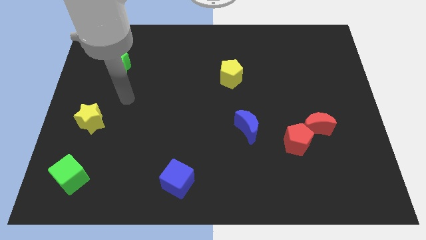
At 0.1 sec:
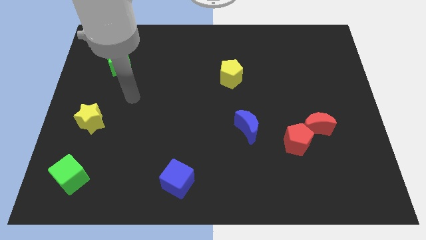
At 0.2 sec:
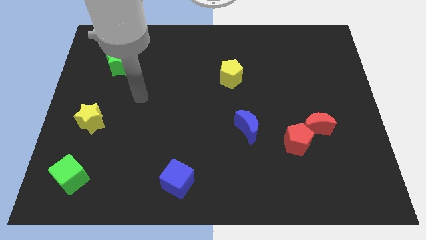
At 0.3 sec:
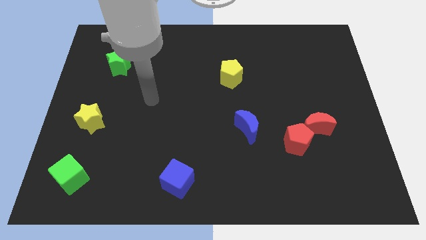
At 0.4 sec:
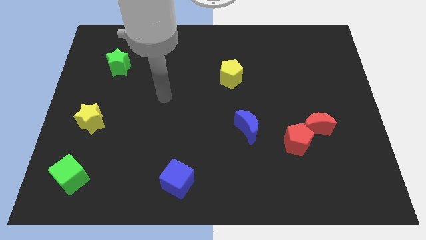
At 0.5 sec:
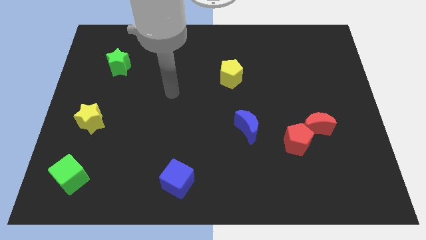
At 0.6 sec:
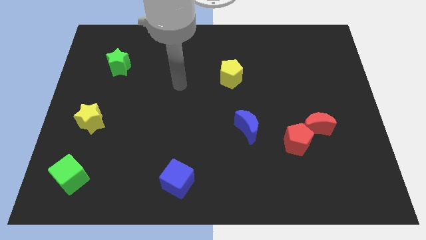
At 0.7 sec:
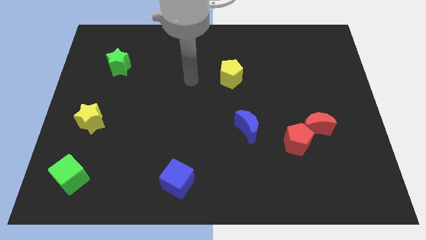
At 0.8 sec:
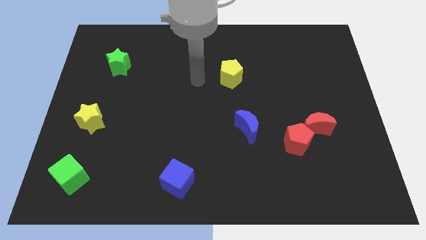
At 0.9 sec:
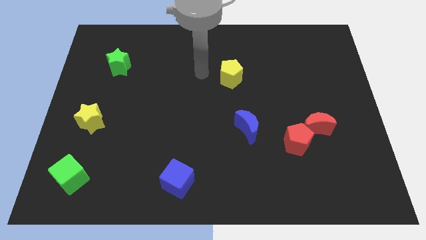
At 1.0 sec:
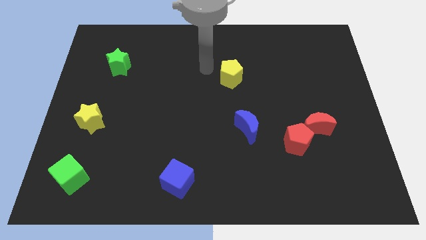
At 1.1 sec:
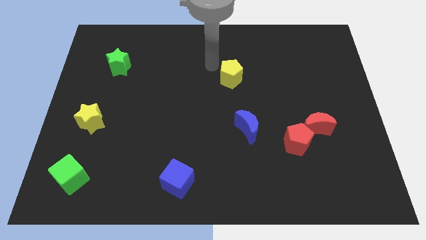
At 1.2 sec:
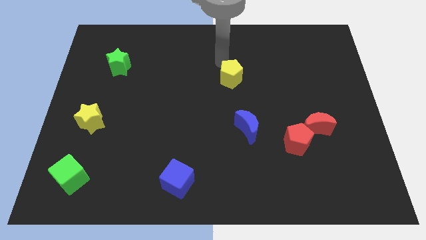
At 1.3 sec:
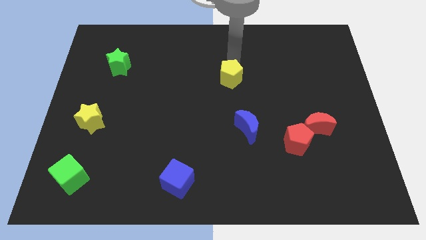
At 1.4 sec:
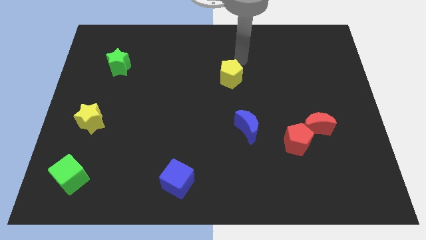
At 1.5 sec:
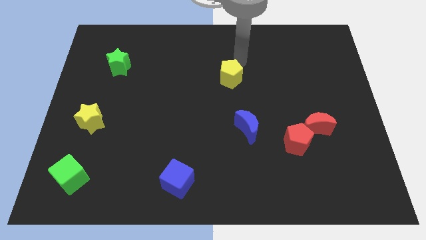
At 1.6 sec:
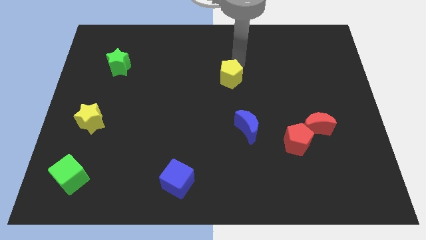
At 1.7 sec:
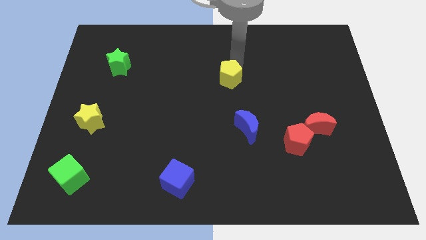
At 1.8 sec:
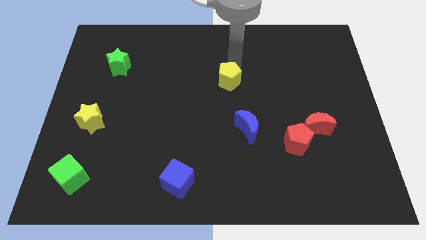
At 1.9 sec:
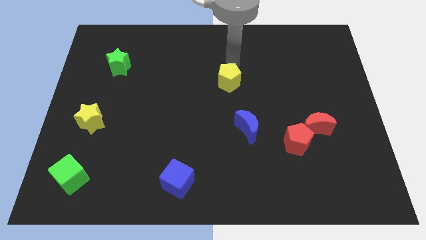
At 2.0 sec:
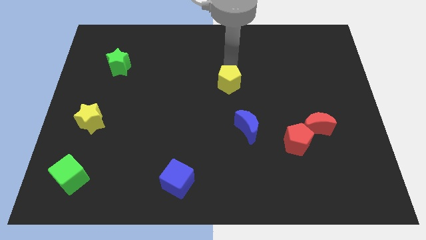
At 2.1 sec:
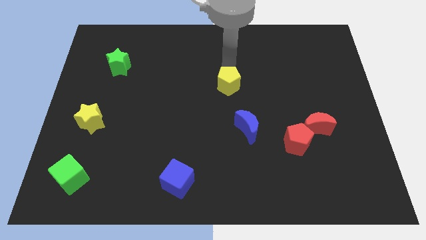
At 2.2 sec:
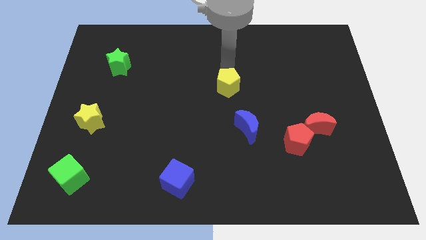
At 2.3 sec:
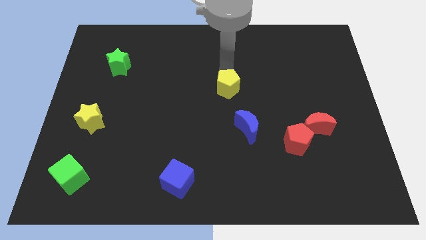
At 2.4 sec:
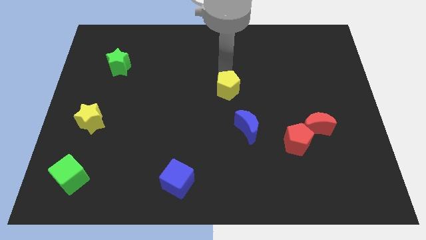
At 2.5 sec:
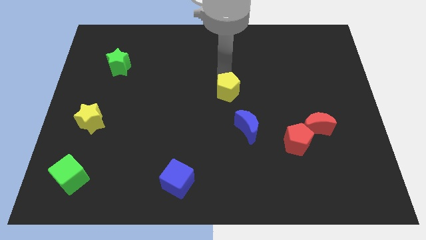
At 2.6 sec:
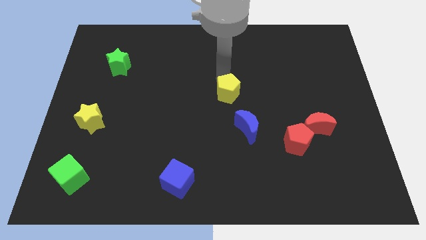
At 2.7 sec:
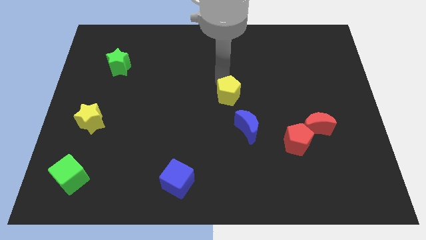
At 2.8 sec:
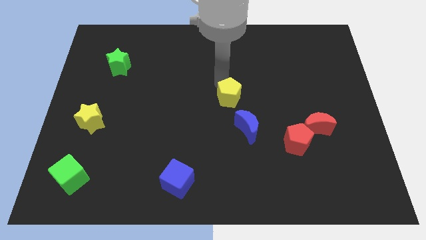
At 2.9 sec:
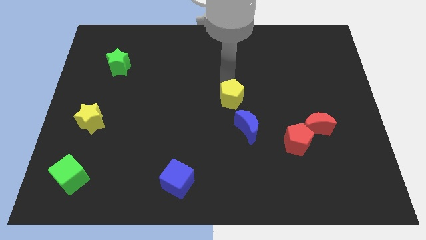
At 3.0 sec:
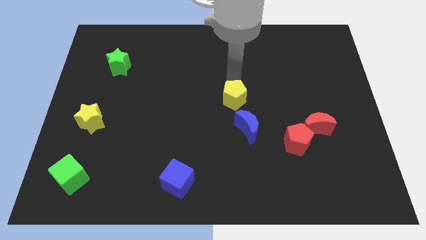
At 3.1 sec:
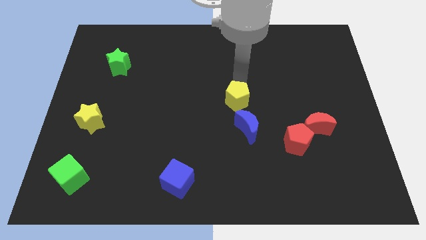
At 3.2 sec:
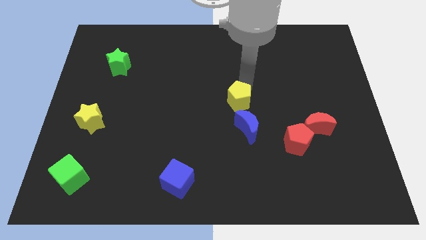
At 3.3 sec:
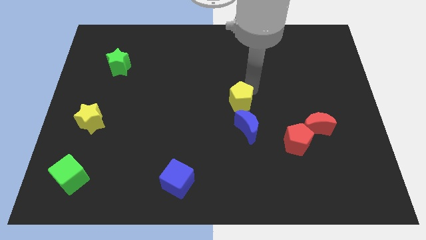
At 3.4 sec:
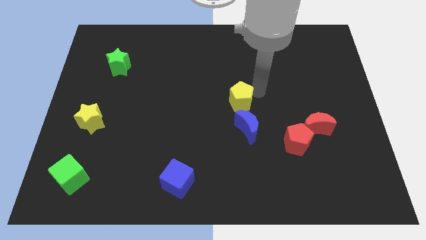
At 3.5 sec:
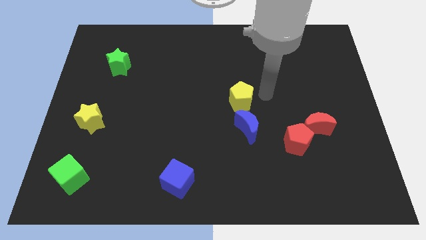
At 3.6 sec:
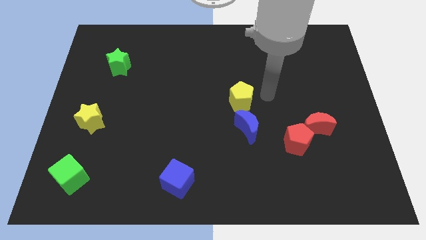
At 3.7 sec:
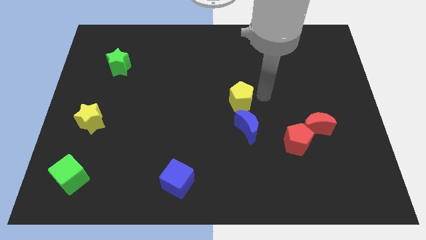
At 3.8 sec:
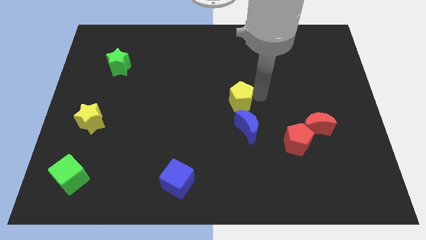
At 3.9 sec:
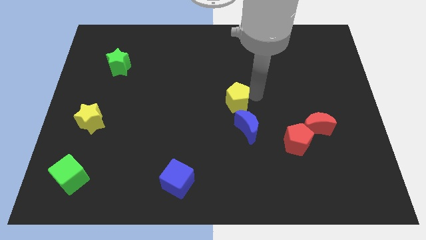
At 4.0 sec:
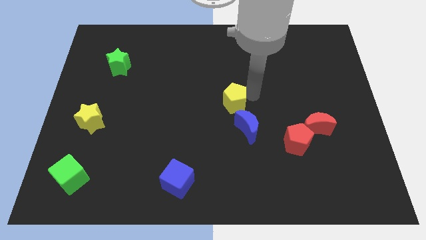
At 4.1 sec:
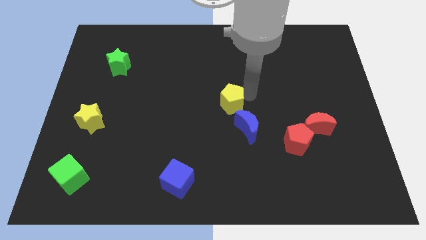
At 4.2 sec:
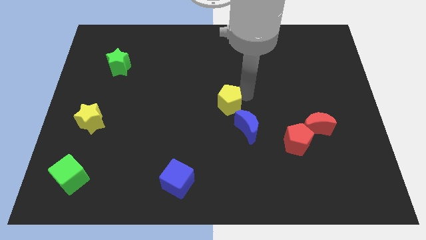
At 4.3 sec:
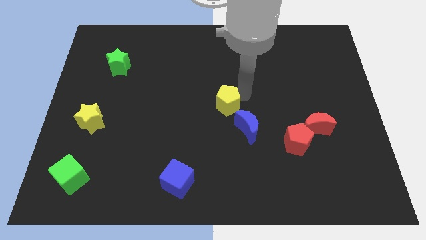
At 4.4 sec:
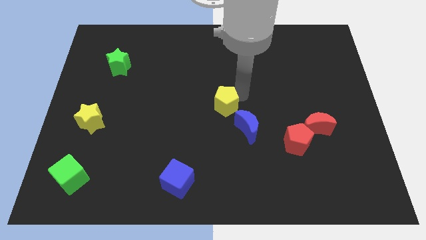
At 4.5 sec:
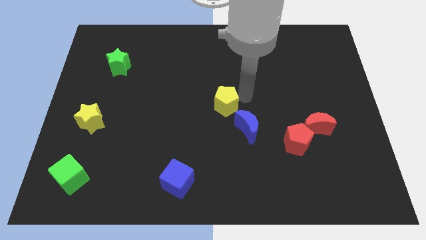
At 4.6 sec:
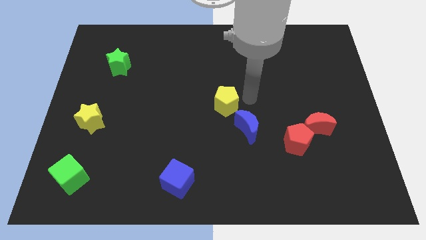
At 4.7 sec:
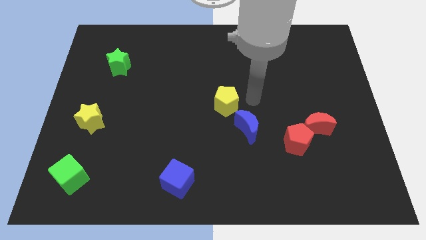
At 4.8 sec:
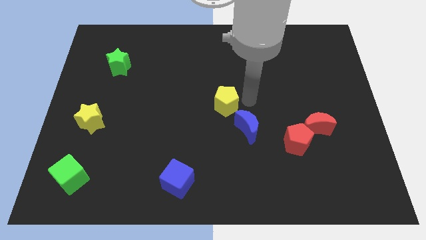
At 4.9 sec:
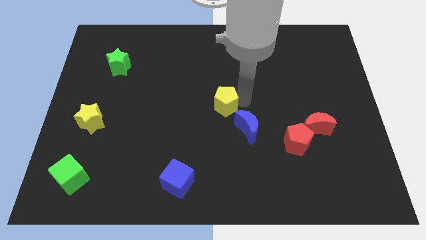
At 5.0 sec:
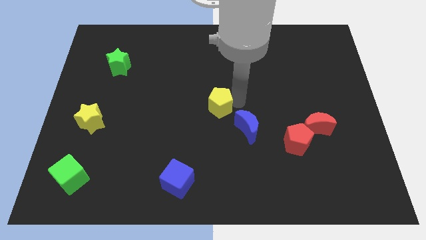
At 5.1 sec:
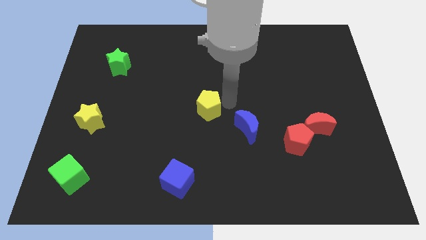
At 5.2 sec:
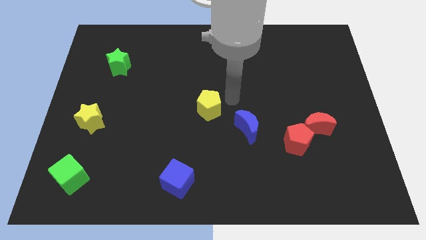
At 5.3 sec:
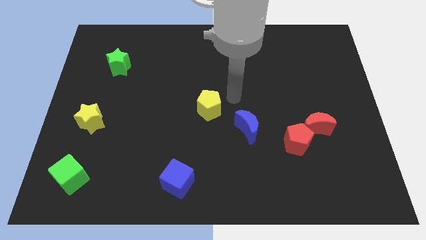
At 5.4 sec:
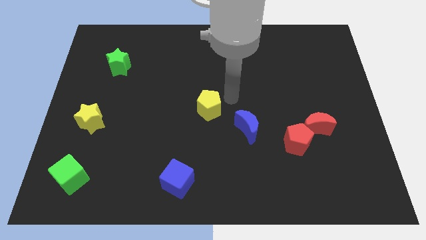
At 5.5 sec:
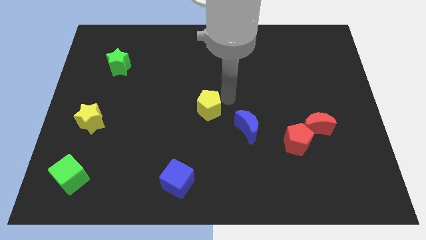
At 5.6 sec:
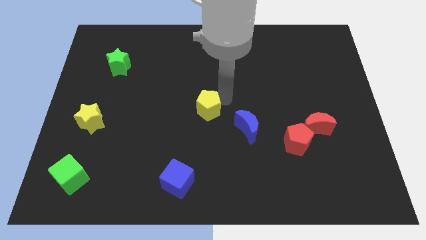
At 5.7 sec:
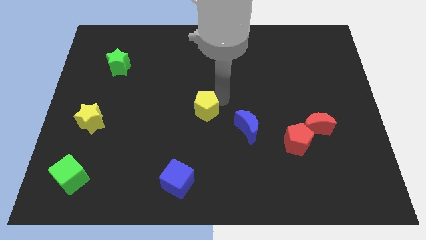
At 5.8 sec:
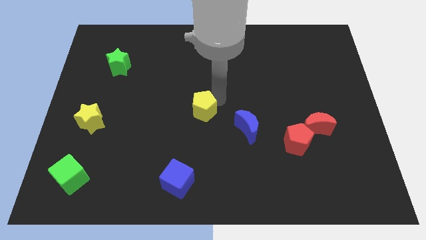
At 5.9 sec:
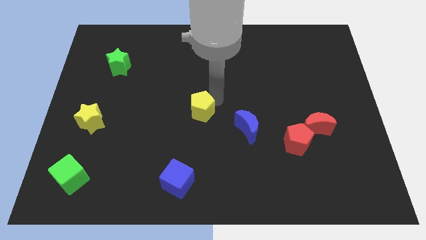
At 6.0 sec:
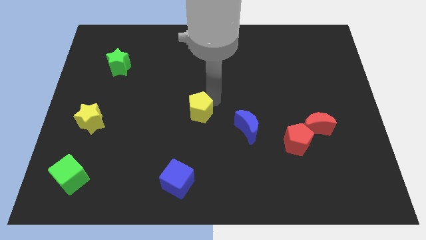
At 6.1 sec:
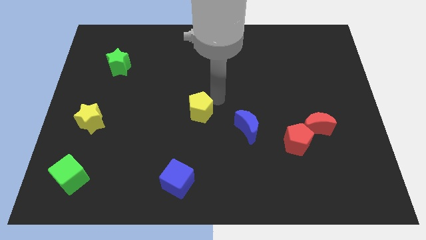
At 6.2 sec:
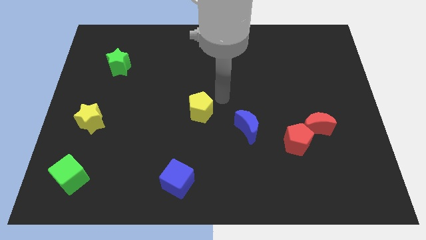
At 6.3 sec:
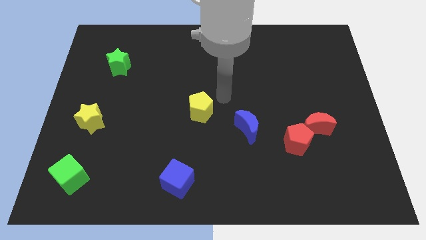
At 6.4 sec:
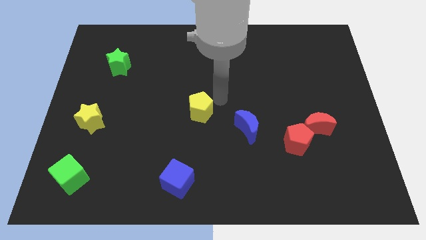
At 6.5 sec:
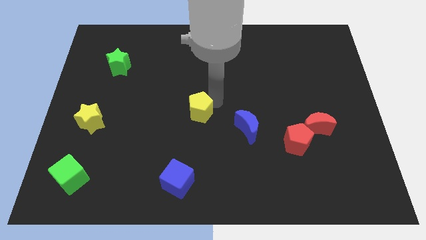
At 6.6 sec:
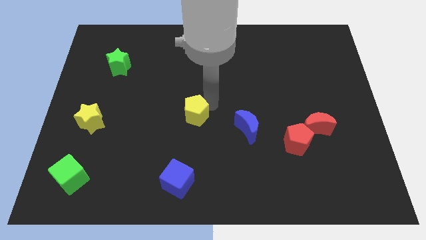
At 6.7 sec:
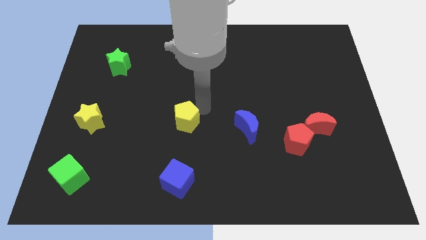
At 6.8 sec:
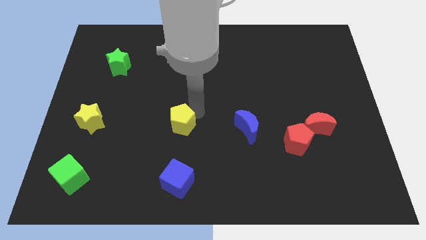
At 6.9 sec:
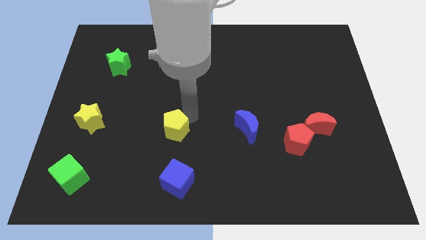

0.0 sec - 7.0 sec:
push the yellow pentagon diagonally down and to the left

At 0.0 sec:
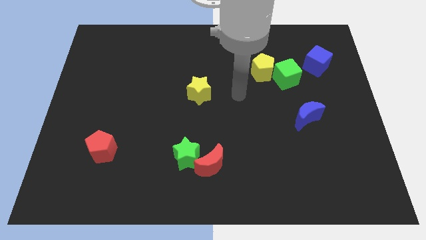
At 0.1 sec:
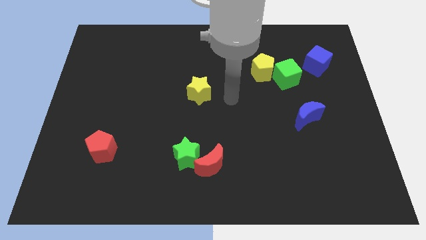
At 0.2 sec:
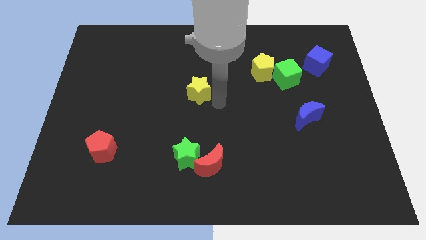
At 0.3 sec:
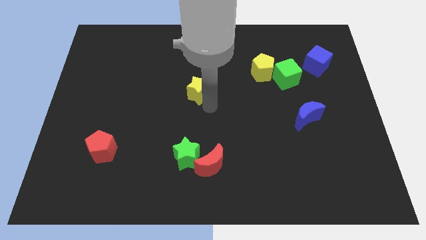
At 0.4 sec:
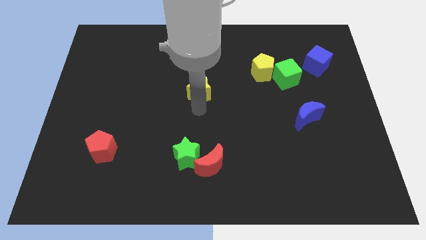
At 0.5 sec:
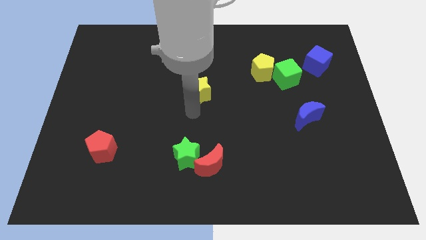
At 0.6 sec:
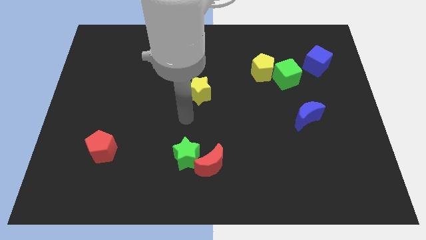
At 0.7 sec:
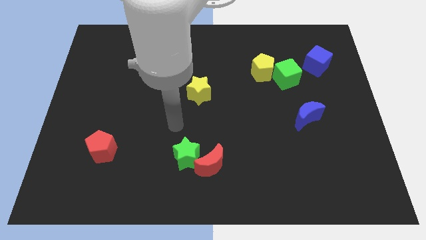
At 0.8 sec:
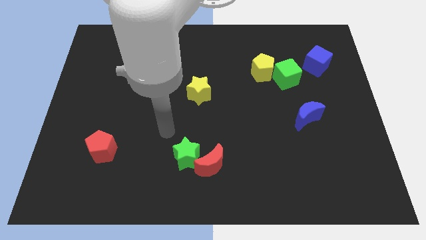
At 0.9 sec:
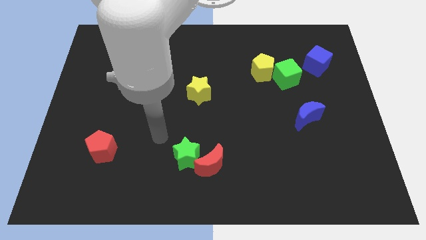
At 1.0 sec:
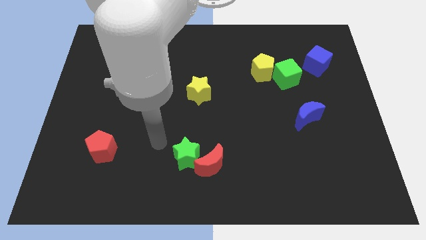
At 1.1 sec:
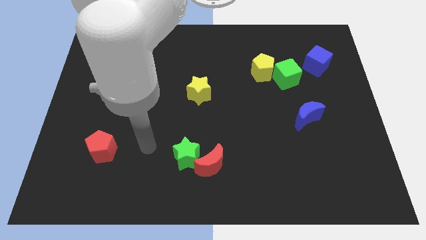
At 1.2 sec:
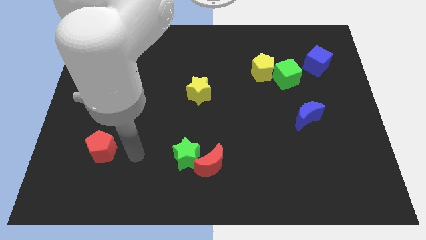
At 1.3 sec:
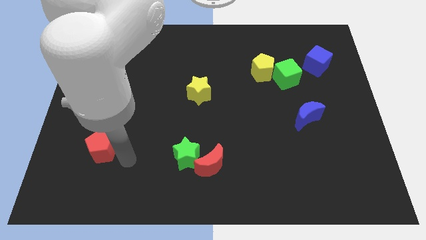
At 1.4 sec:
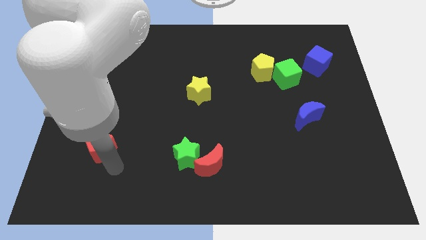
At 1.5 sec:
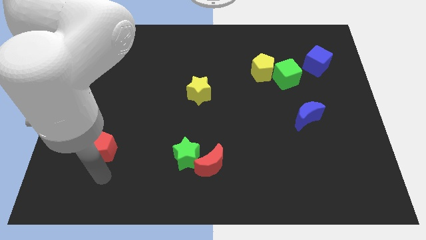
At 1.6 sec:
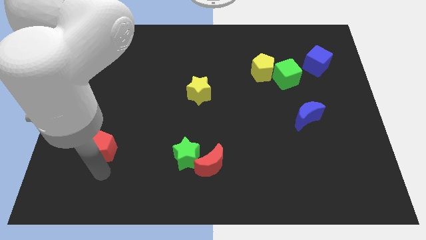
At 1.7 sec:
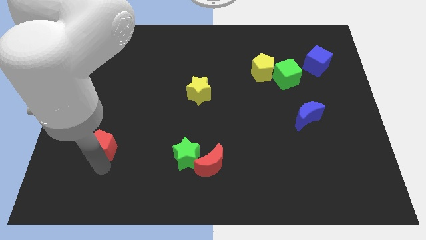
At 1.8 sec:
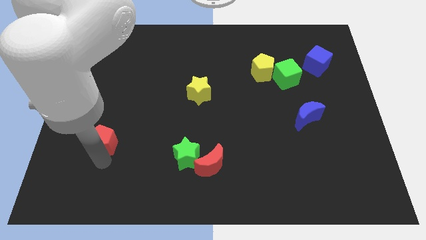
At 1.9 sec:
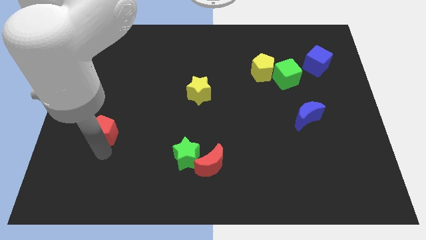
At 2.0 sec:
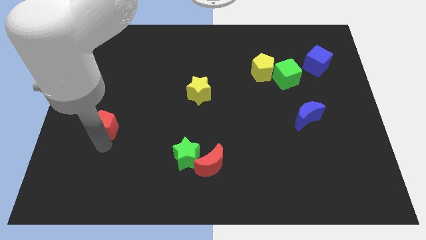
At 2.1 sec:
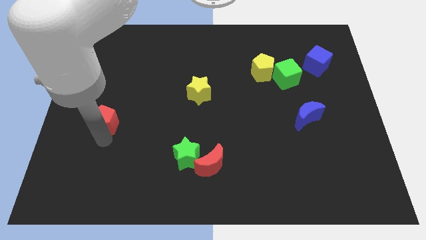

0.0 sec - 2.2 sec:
move the red pentagon a bit upwards
